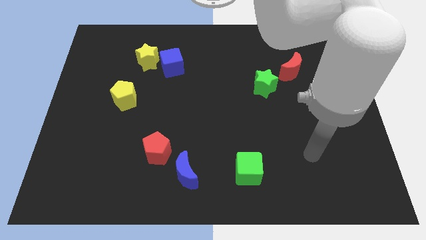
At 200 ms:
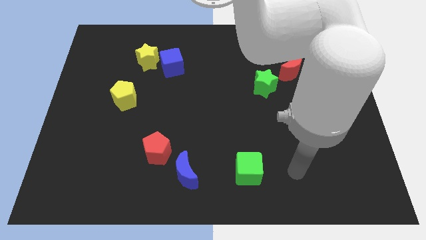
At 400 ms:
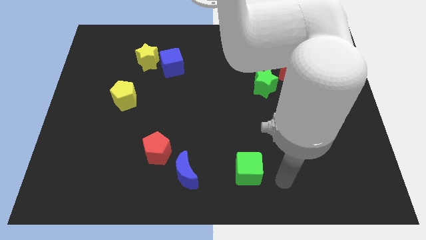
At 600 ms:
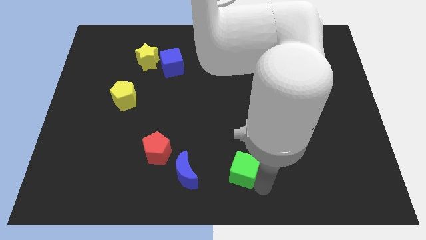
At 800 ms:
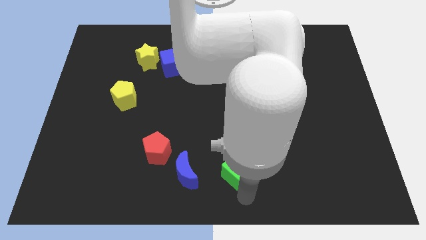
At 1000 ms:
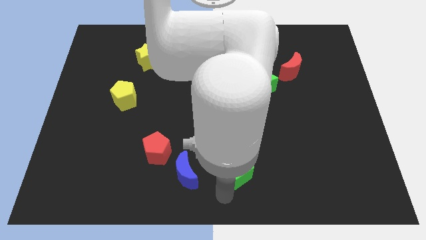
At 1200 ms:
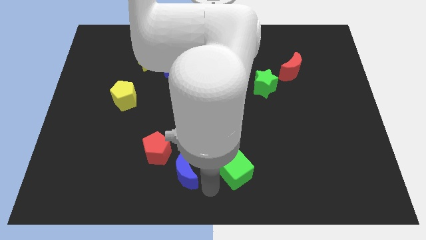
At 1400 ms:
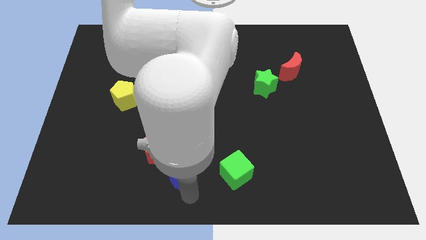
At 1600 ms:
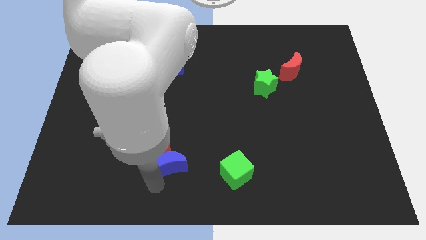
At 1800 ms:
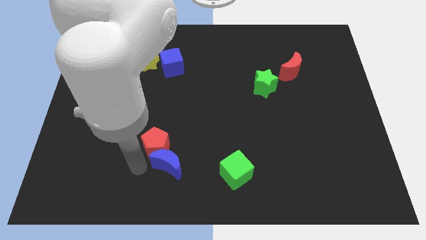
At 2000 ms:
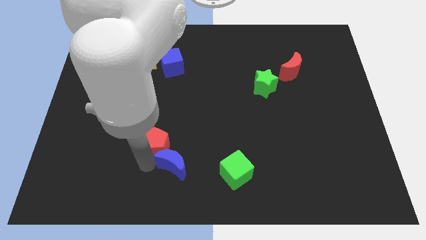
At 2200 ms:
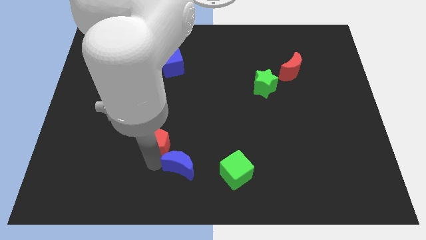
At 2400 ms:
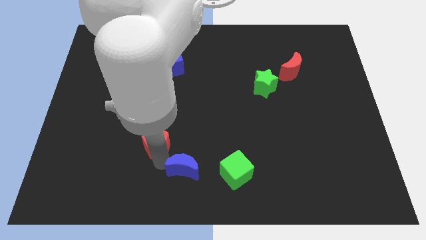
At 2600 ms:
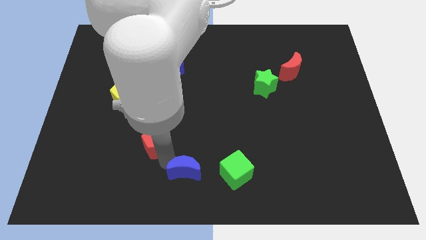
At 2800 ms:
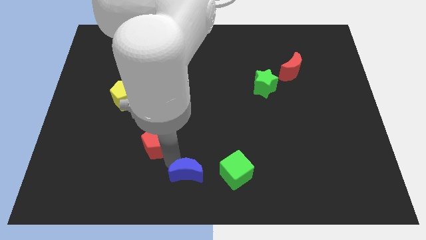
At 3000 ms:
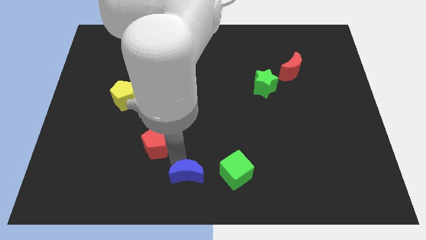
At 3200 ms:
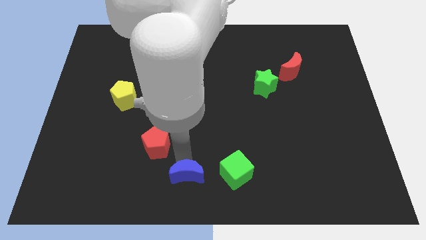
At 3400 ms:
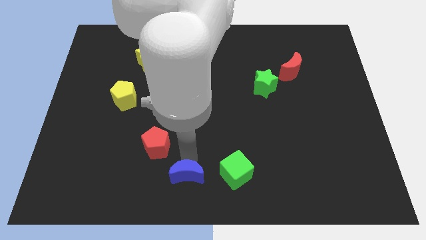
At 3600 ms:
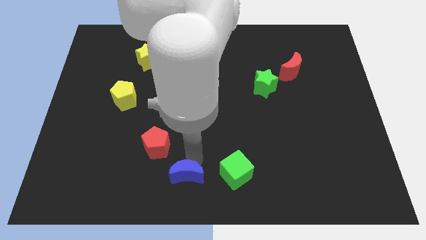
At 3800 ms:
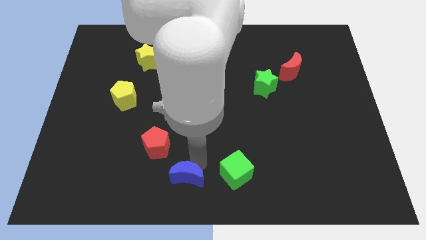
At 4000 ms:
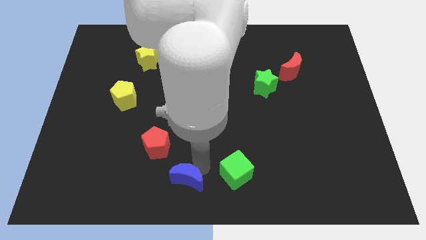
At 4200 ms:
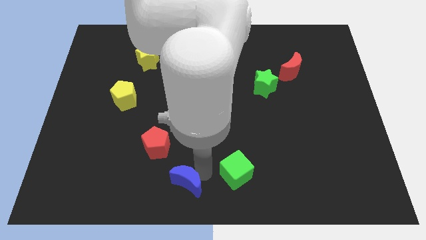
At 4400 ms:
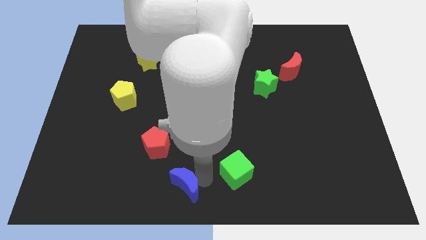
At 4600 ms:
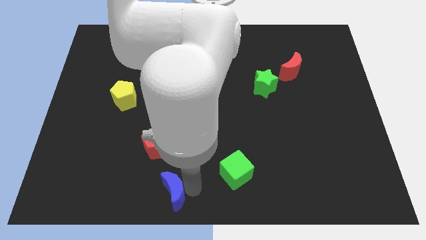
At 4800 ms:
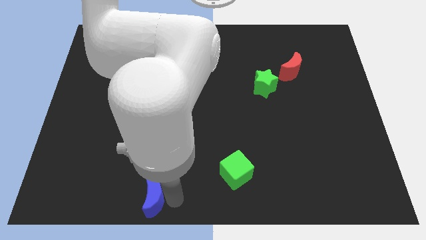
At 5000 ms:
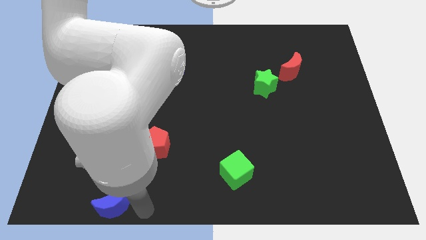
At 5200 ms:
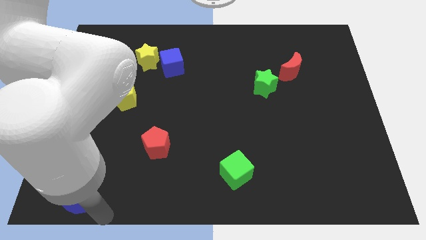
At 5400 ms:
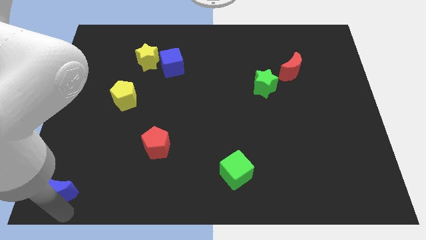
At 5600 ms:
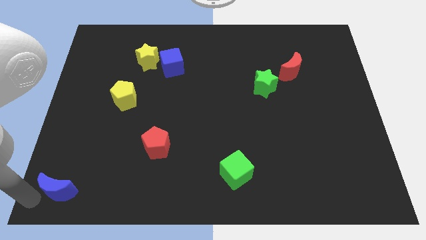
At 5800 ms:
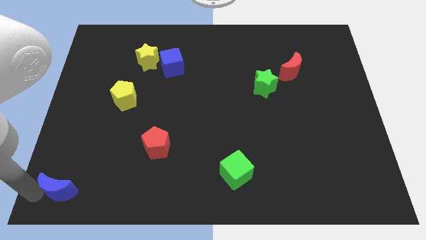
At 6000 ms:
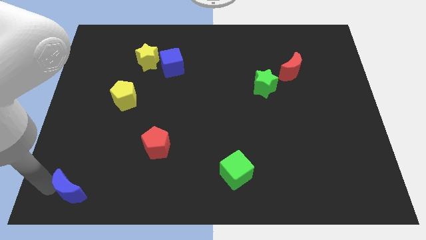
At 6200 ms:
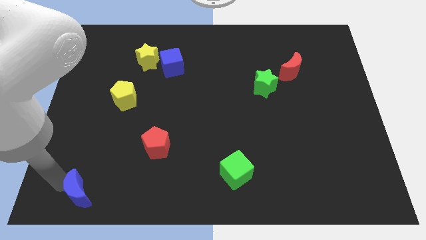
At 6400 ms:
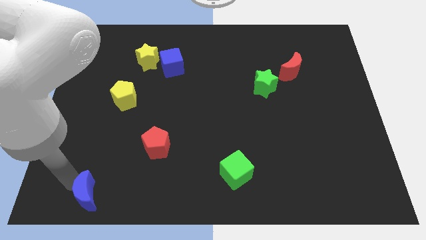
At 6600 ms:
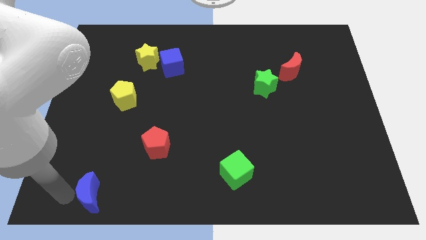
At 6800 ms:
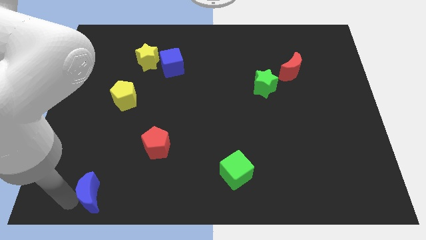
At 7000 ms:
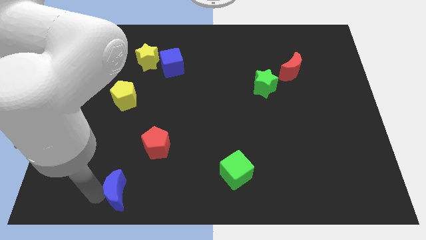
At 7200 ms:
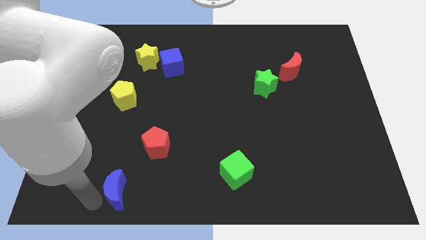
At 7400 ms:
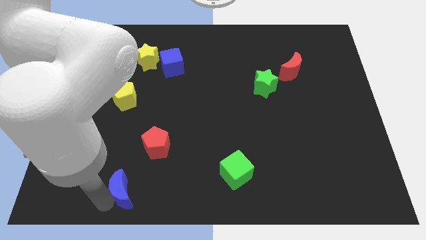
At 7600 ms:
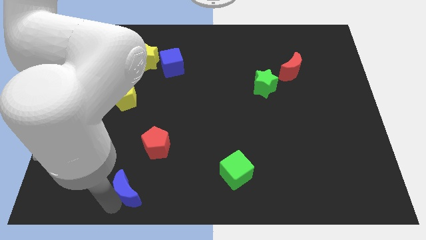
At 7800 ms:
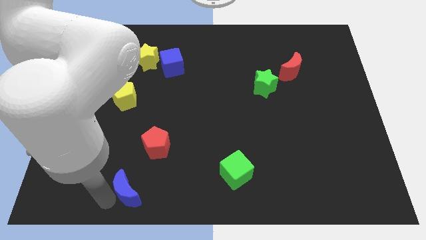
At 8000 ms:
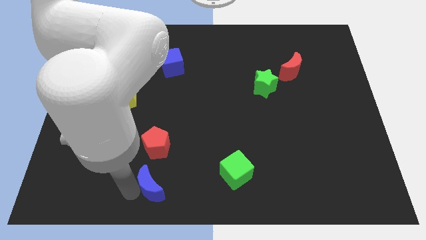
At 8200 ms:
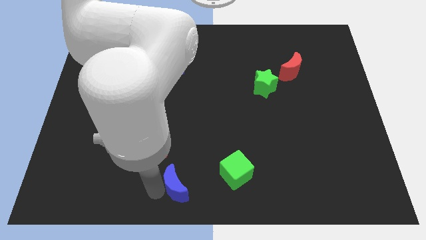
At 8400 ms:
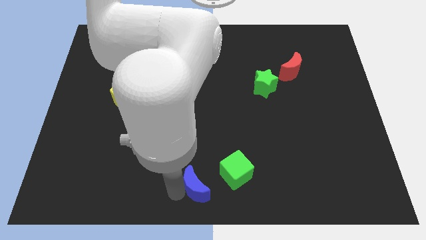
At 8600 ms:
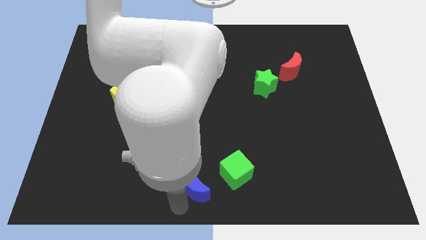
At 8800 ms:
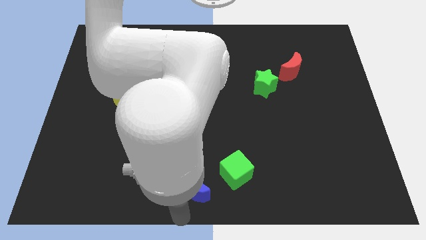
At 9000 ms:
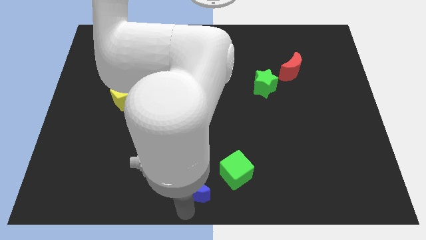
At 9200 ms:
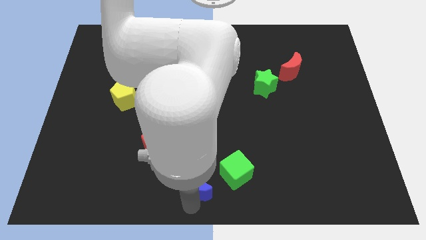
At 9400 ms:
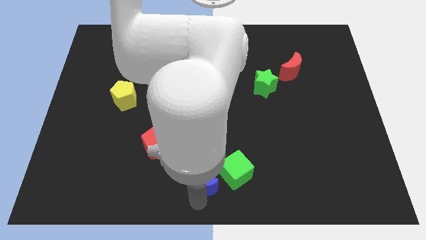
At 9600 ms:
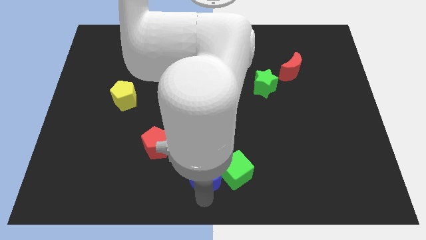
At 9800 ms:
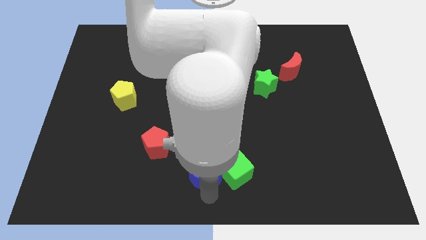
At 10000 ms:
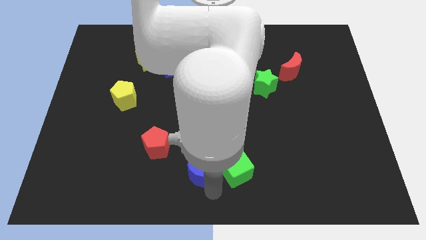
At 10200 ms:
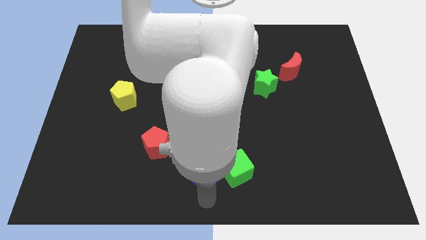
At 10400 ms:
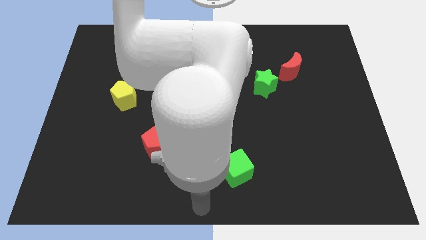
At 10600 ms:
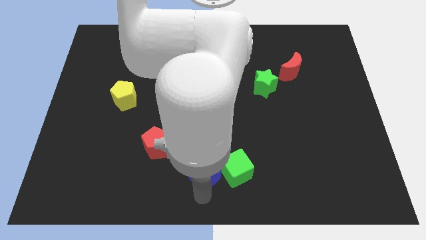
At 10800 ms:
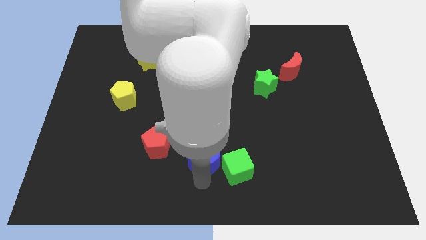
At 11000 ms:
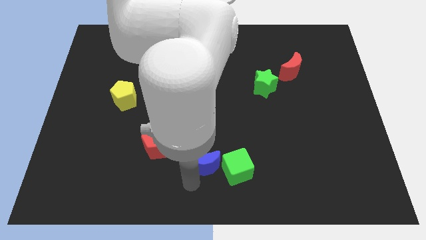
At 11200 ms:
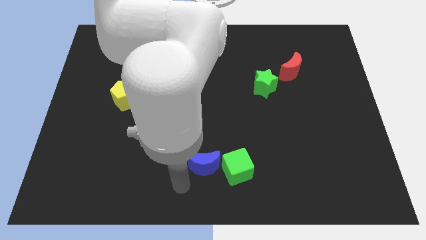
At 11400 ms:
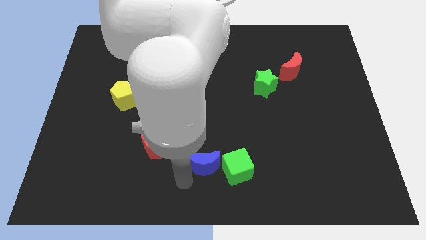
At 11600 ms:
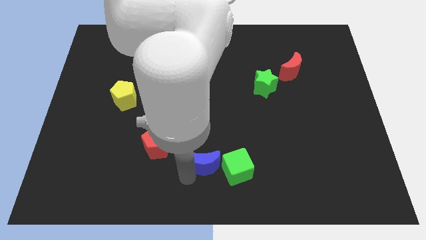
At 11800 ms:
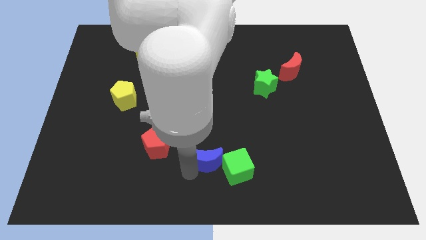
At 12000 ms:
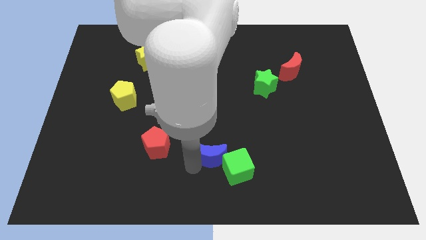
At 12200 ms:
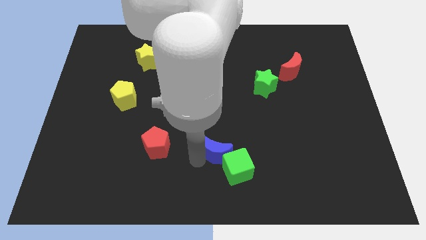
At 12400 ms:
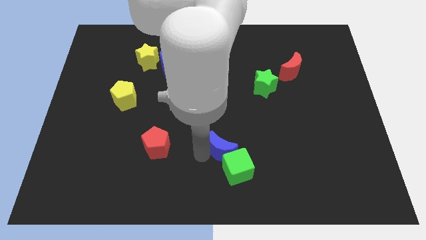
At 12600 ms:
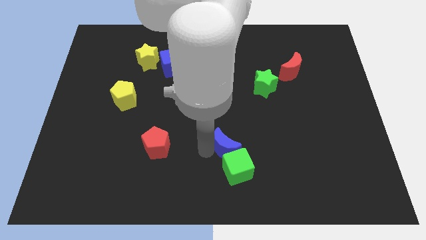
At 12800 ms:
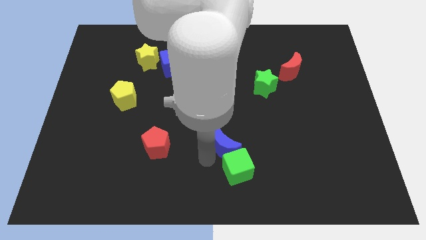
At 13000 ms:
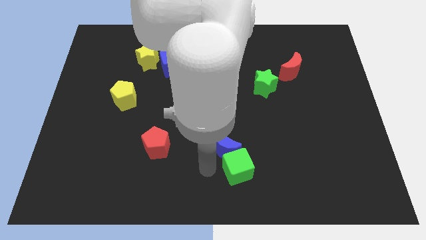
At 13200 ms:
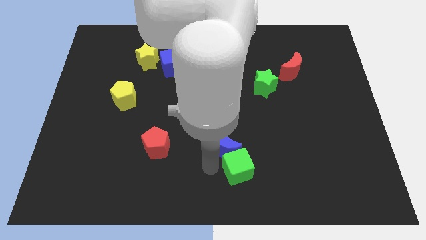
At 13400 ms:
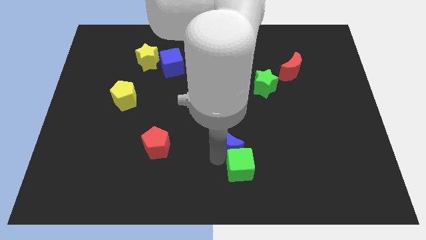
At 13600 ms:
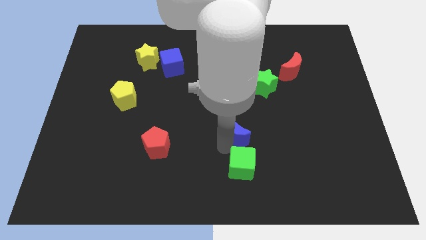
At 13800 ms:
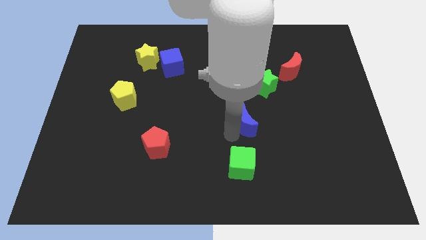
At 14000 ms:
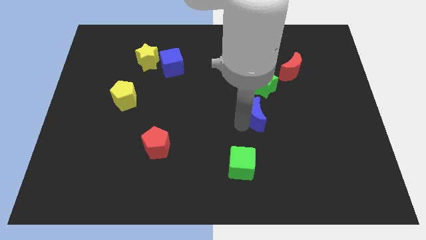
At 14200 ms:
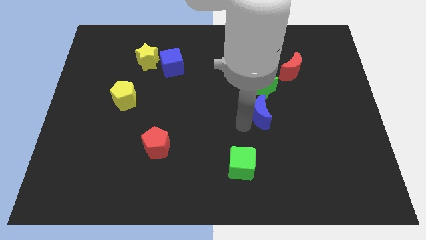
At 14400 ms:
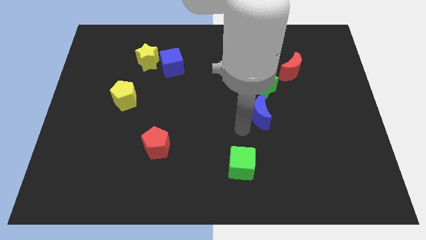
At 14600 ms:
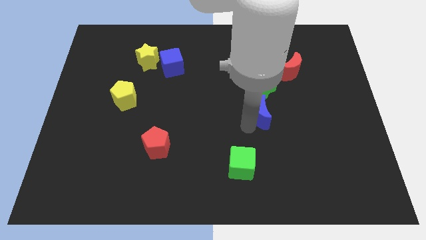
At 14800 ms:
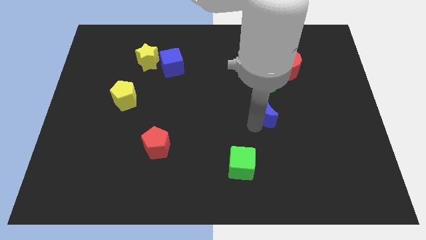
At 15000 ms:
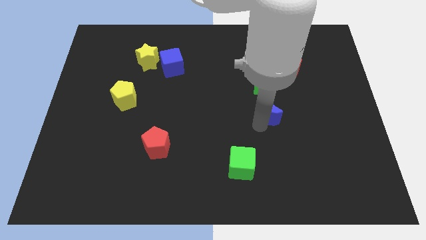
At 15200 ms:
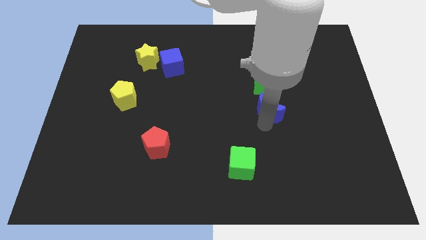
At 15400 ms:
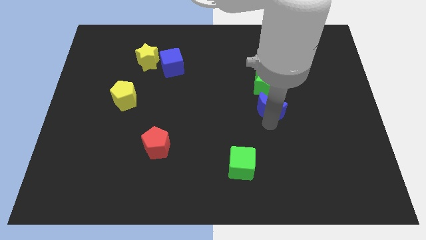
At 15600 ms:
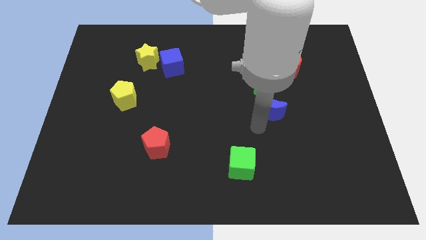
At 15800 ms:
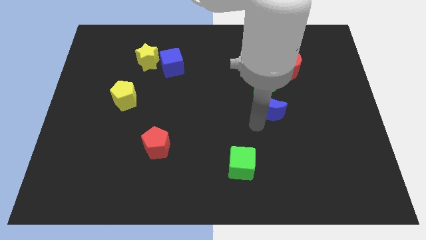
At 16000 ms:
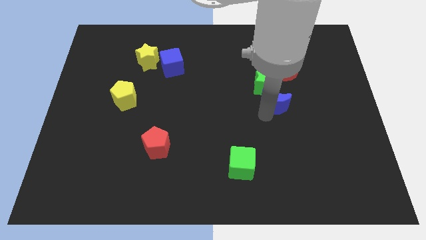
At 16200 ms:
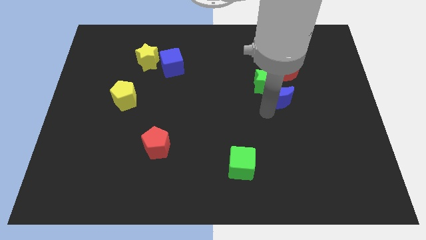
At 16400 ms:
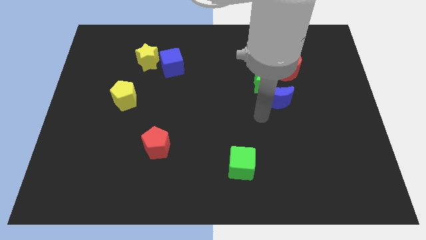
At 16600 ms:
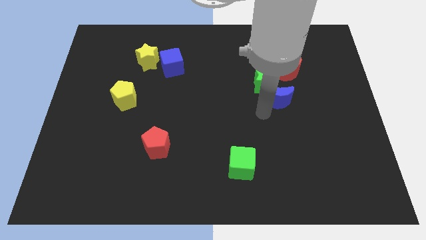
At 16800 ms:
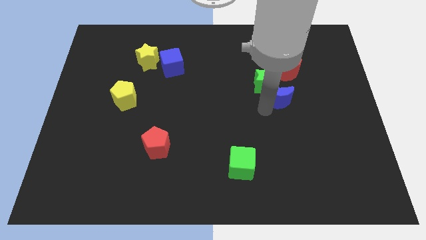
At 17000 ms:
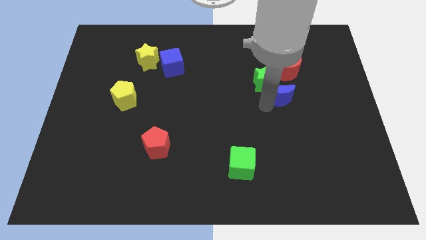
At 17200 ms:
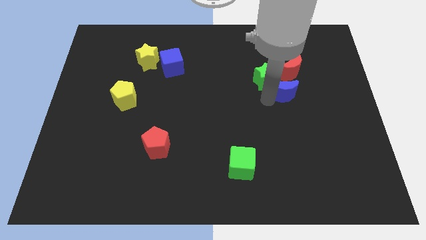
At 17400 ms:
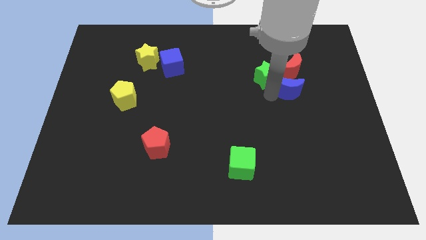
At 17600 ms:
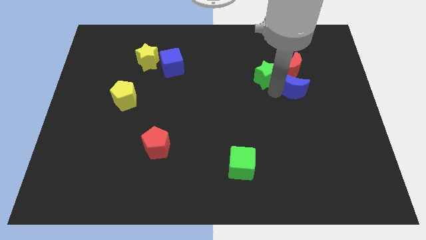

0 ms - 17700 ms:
move the blue moon to the red moon
